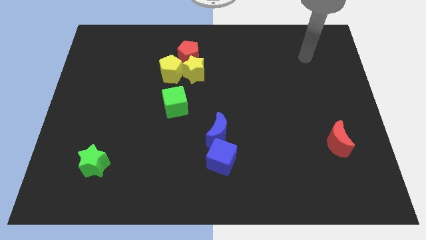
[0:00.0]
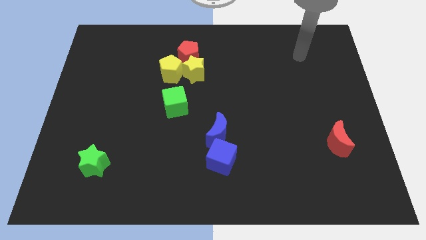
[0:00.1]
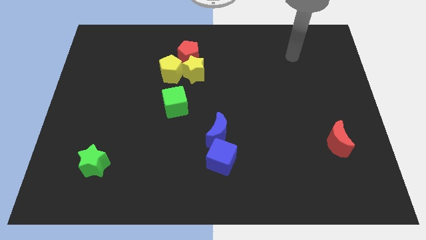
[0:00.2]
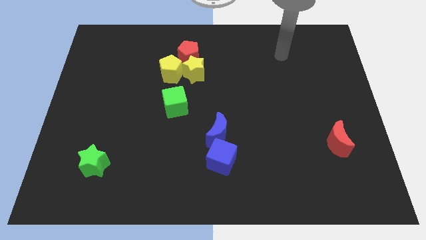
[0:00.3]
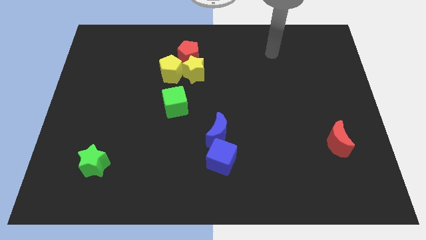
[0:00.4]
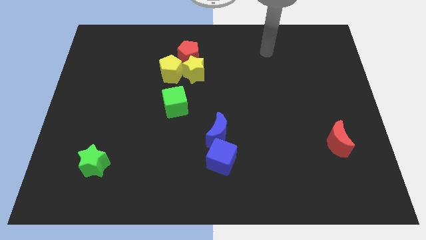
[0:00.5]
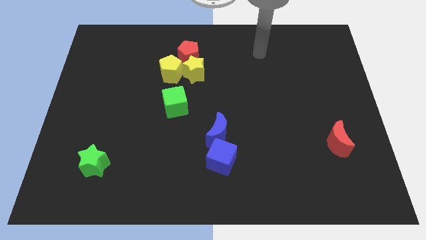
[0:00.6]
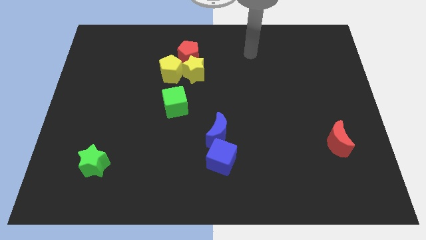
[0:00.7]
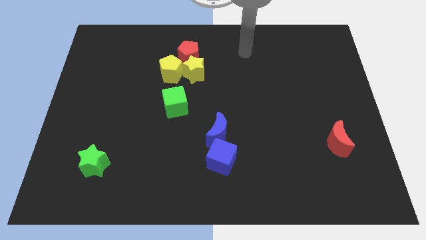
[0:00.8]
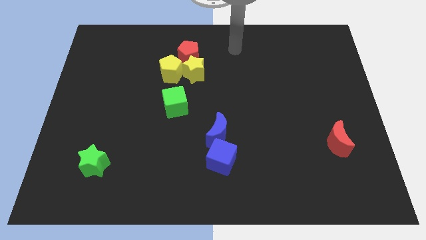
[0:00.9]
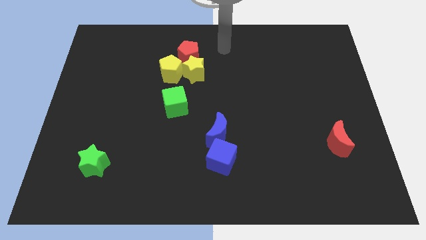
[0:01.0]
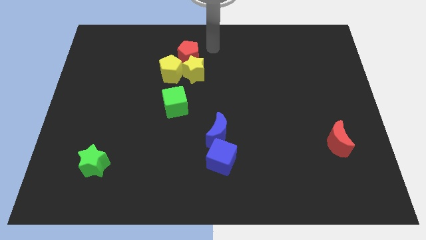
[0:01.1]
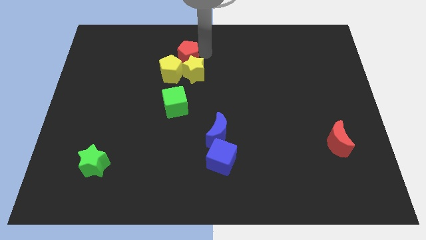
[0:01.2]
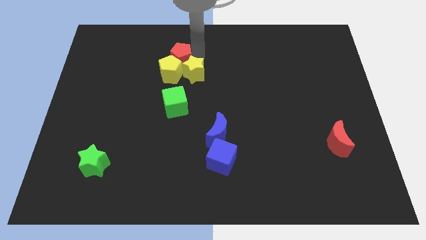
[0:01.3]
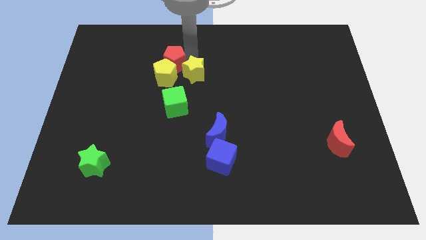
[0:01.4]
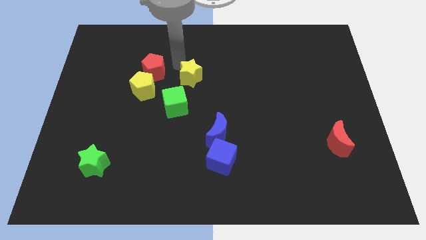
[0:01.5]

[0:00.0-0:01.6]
pull the yellow star apart from the yellow pentagon and red pentagon

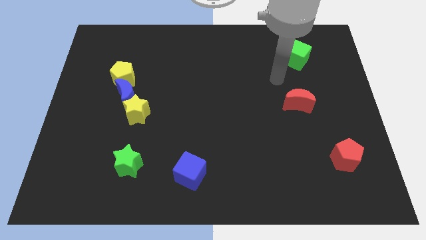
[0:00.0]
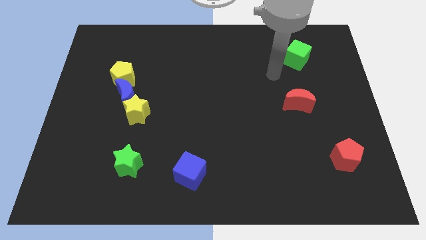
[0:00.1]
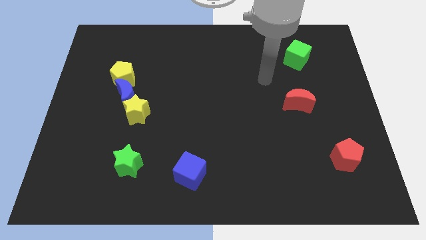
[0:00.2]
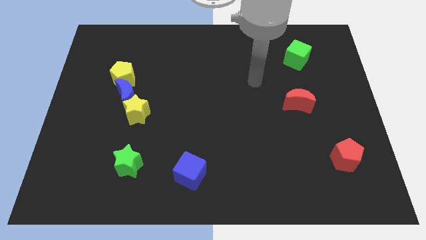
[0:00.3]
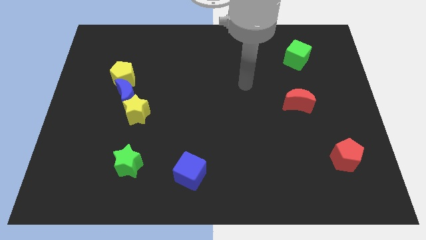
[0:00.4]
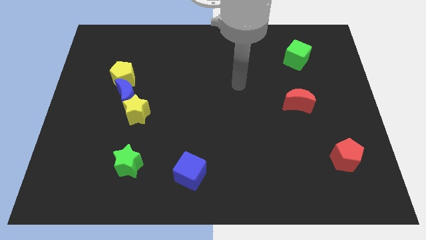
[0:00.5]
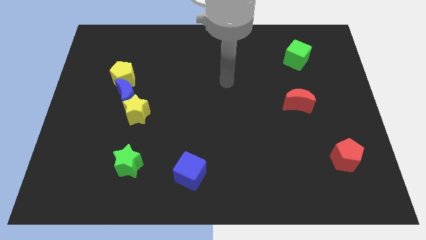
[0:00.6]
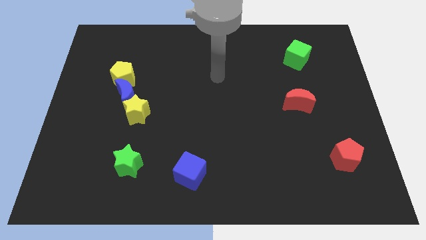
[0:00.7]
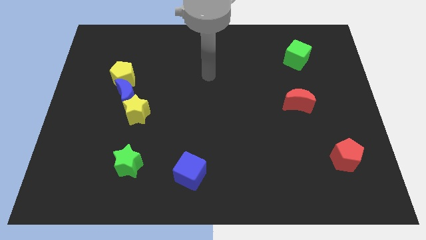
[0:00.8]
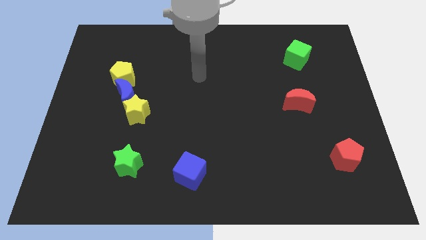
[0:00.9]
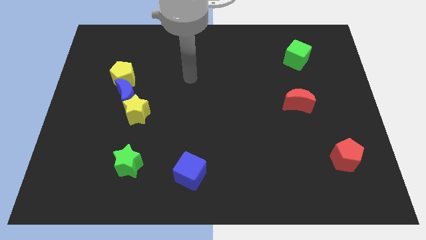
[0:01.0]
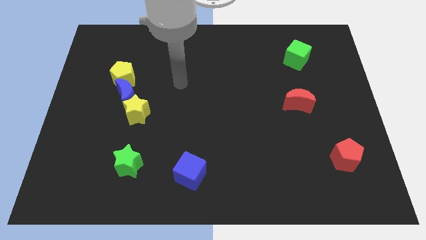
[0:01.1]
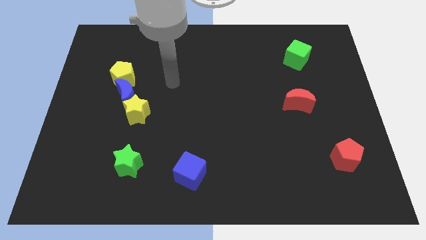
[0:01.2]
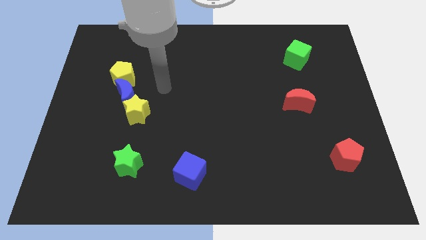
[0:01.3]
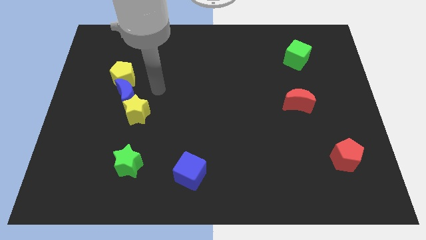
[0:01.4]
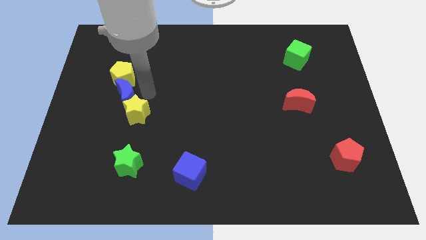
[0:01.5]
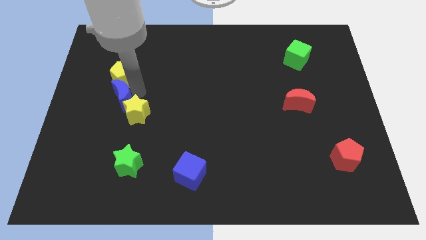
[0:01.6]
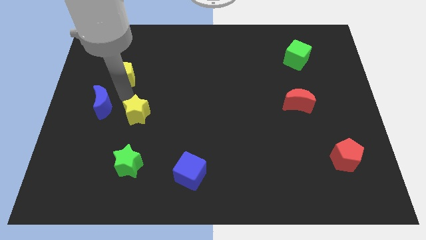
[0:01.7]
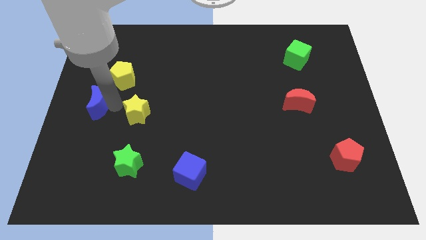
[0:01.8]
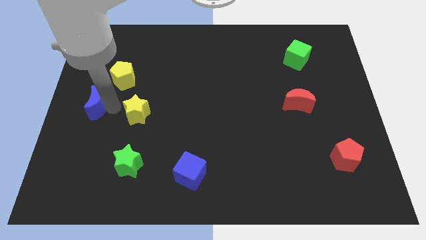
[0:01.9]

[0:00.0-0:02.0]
move the yellow star away from the blue moon

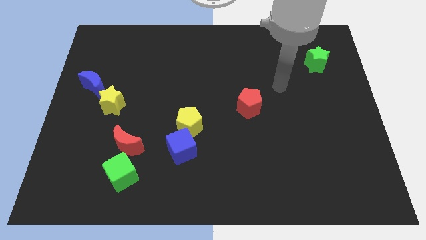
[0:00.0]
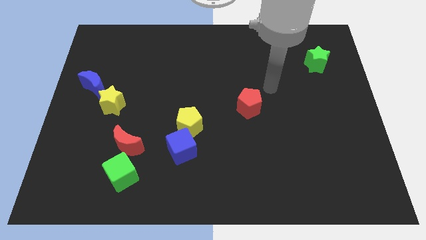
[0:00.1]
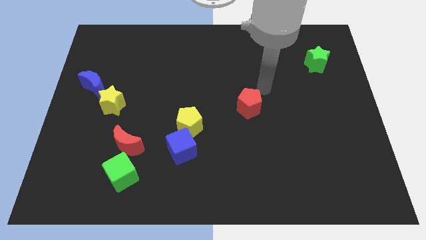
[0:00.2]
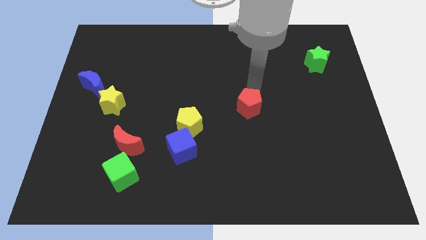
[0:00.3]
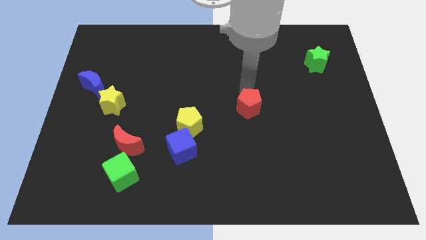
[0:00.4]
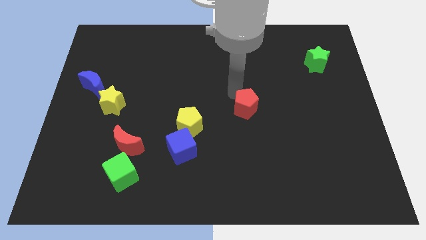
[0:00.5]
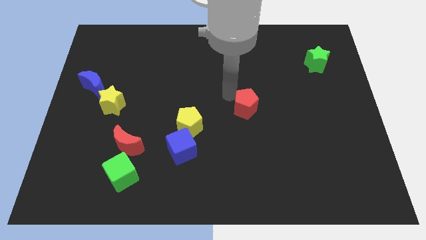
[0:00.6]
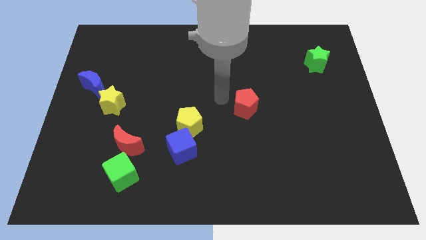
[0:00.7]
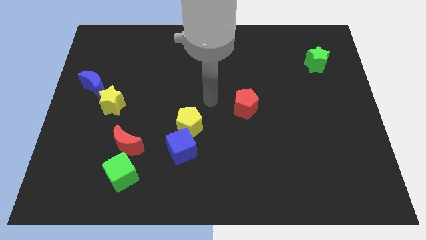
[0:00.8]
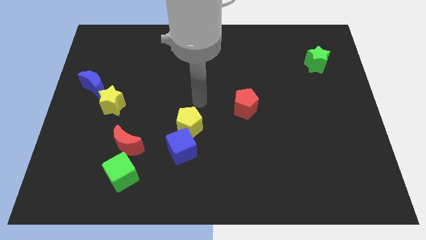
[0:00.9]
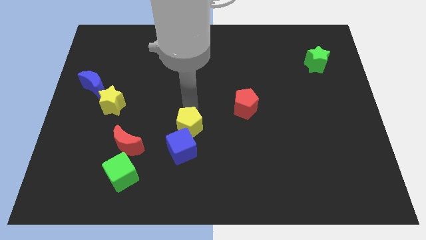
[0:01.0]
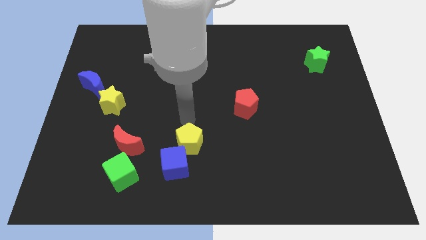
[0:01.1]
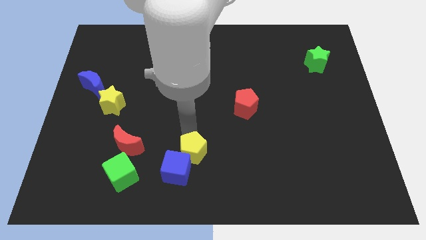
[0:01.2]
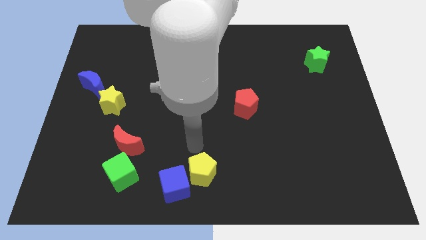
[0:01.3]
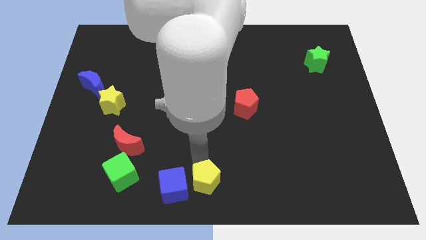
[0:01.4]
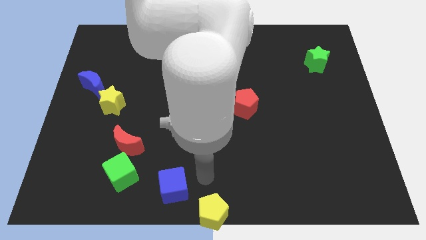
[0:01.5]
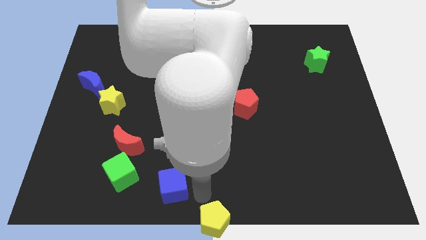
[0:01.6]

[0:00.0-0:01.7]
separate the blue cube from the yellow pentagon

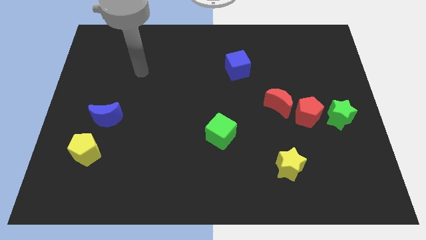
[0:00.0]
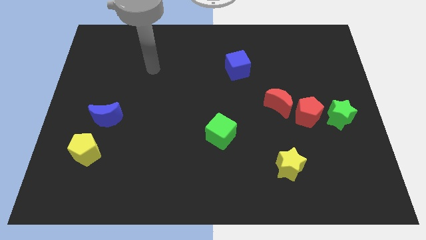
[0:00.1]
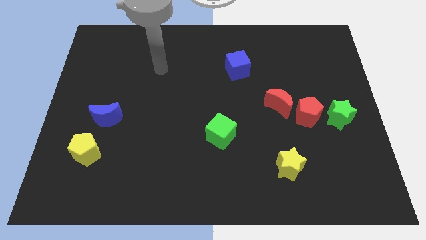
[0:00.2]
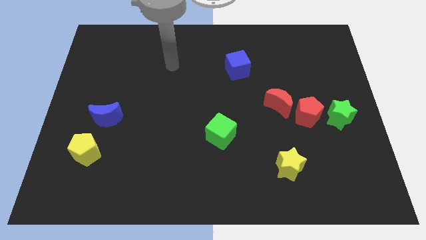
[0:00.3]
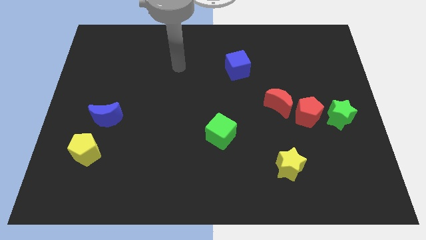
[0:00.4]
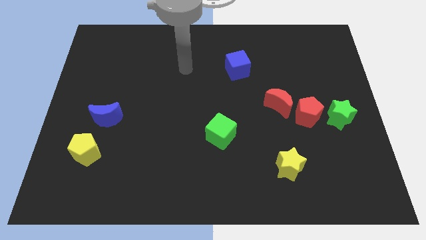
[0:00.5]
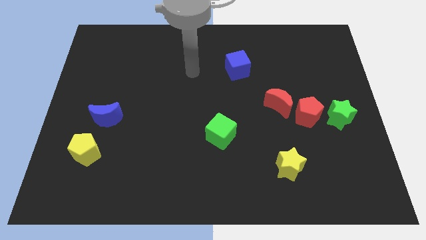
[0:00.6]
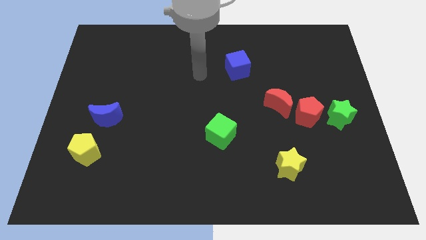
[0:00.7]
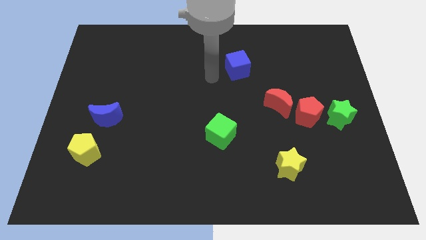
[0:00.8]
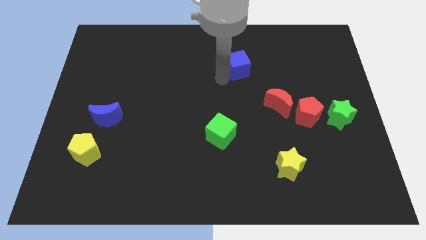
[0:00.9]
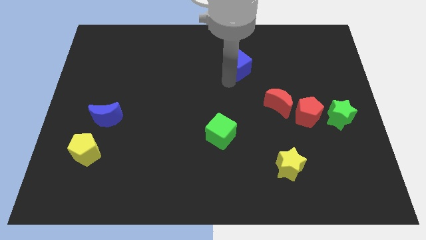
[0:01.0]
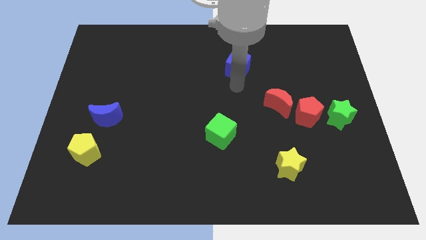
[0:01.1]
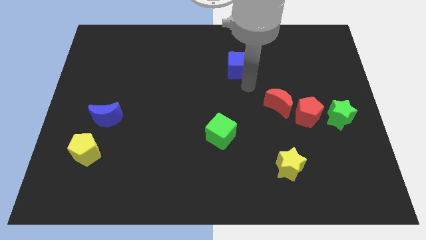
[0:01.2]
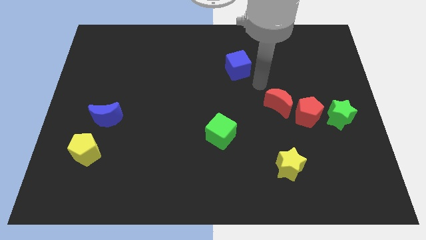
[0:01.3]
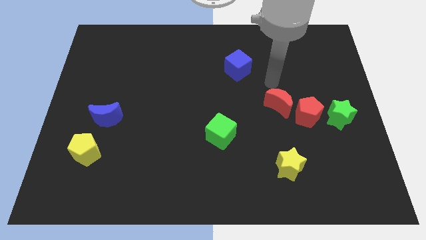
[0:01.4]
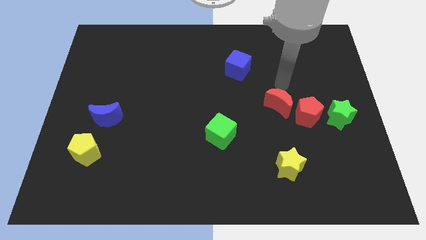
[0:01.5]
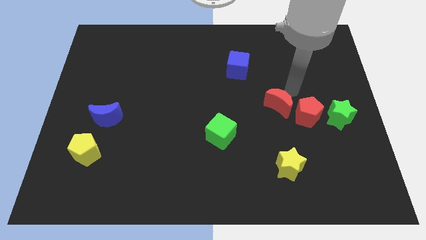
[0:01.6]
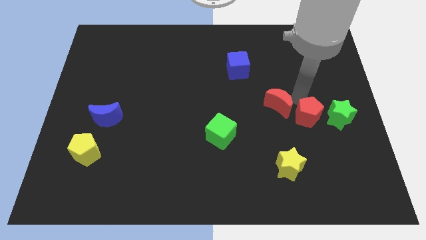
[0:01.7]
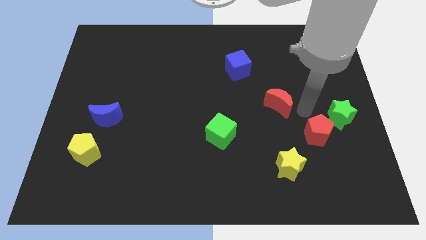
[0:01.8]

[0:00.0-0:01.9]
separate the red moon from the red pentagon

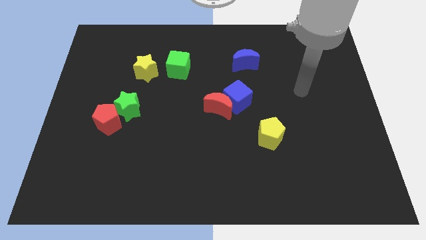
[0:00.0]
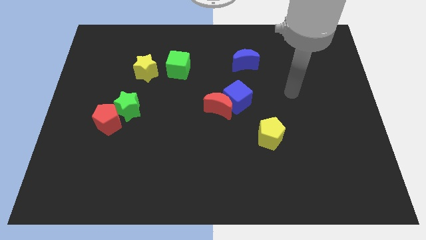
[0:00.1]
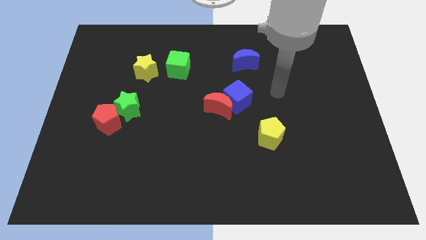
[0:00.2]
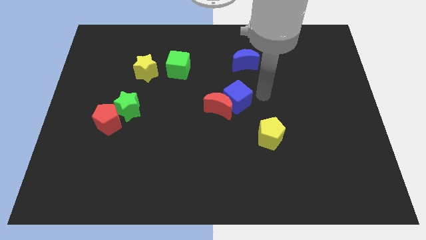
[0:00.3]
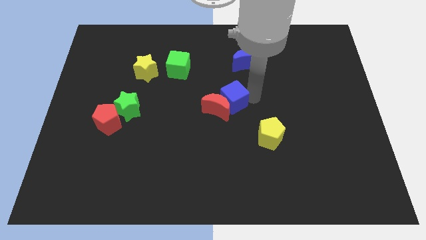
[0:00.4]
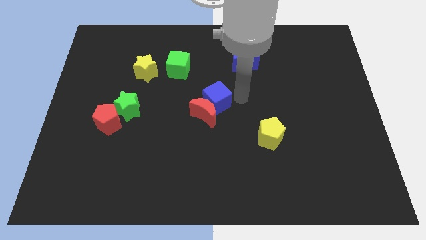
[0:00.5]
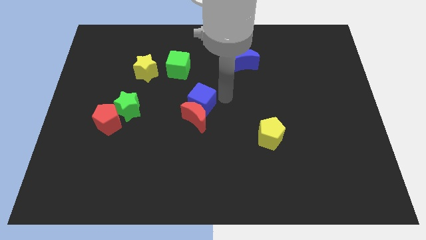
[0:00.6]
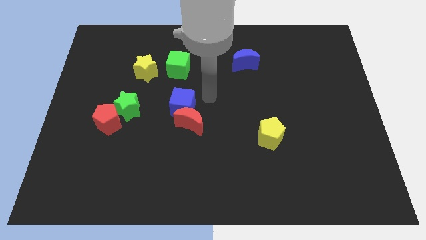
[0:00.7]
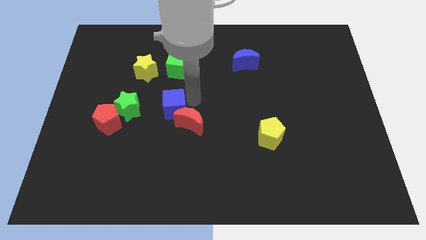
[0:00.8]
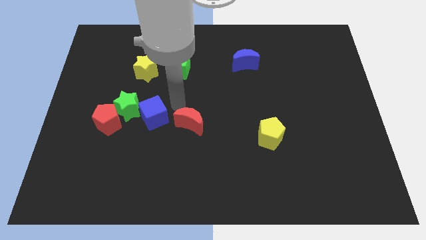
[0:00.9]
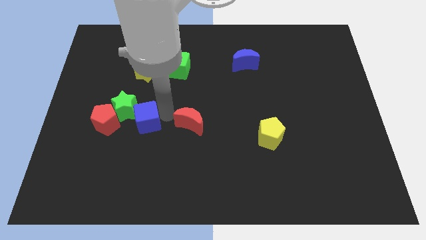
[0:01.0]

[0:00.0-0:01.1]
separate the red moon from the blue cube

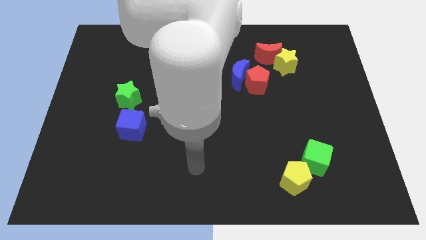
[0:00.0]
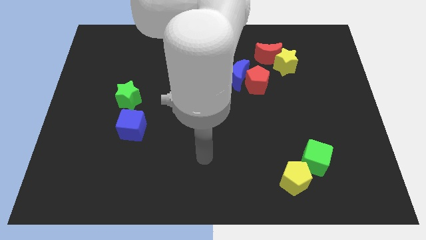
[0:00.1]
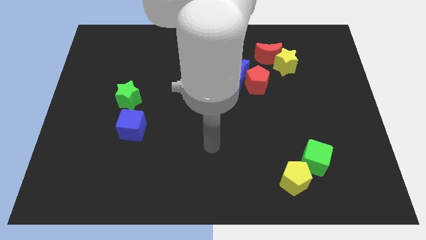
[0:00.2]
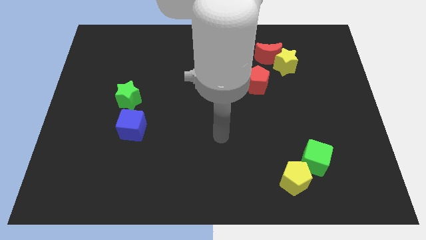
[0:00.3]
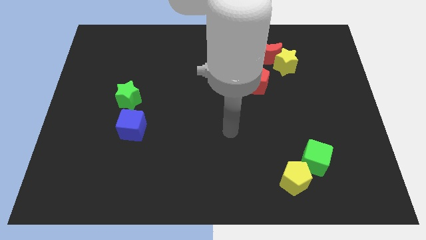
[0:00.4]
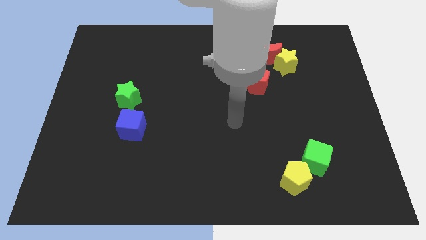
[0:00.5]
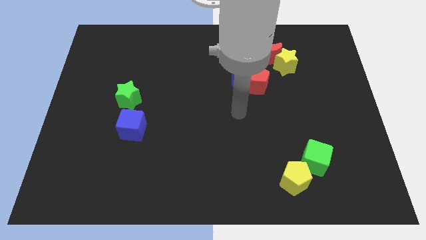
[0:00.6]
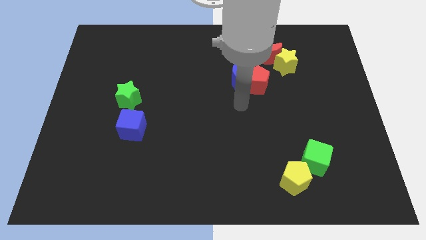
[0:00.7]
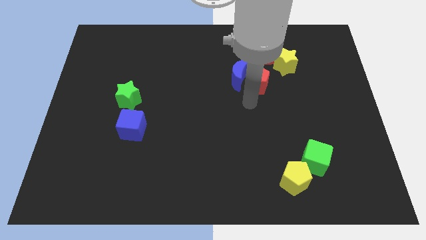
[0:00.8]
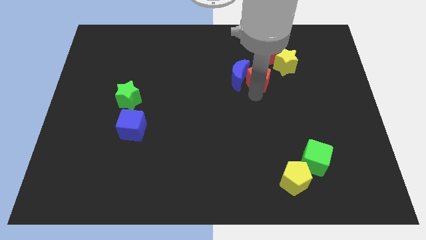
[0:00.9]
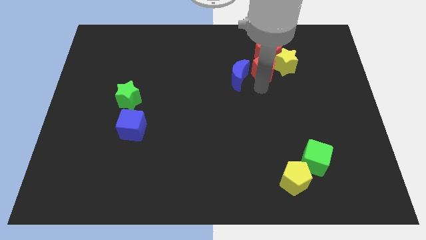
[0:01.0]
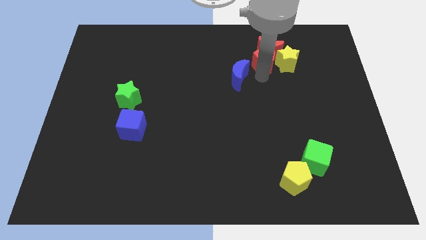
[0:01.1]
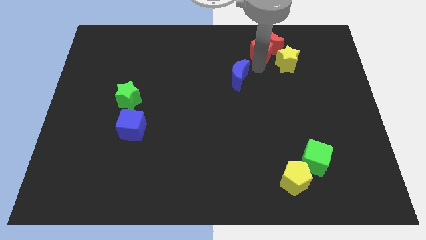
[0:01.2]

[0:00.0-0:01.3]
separate the blue moon from the red pentagon
